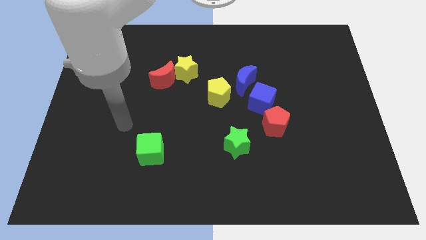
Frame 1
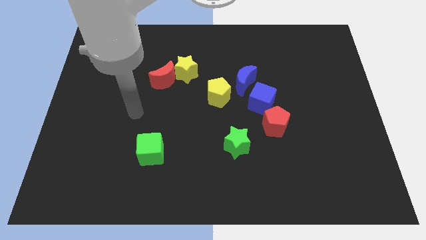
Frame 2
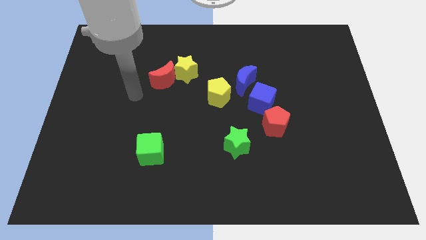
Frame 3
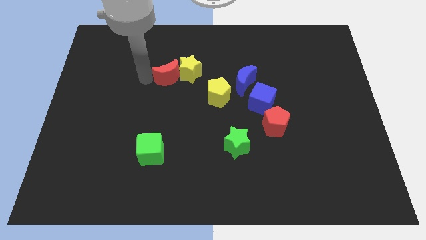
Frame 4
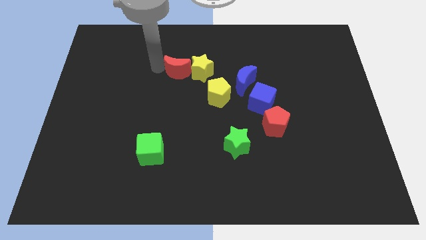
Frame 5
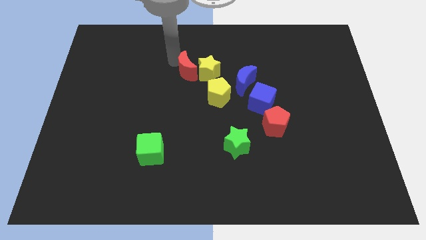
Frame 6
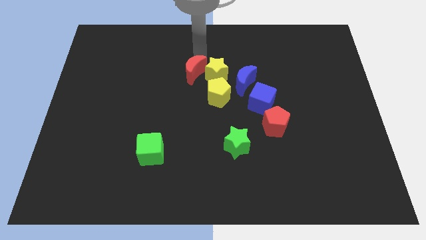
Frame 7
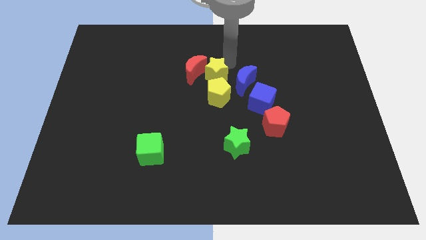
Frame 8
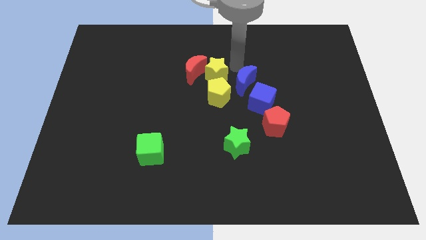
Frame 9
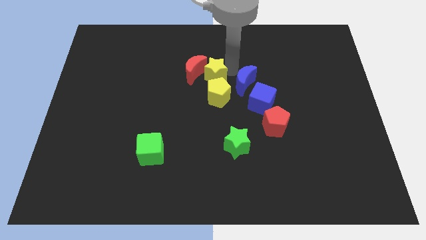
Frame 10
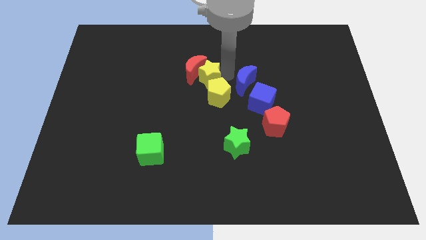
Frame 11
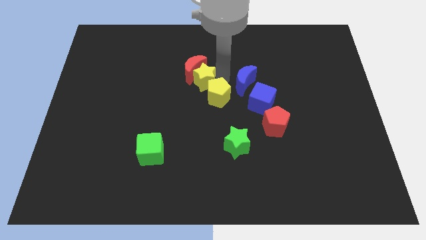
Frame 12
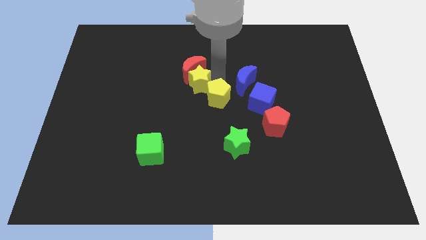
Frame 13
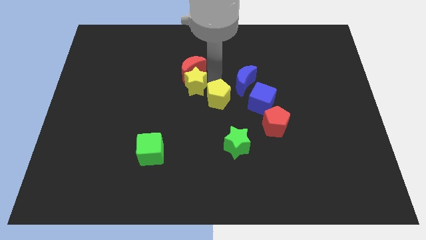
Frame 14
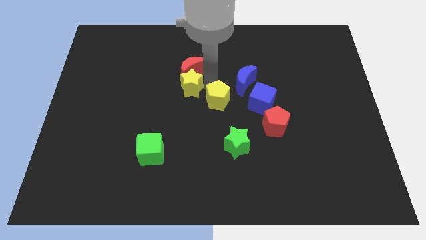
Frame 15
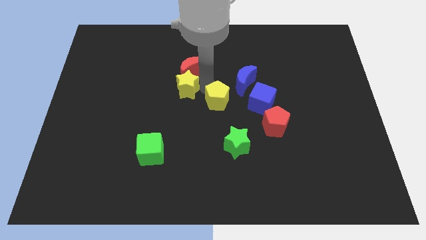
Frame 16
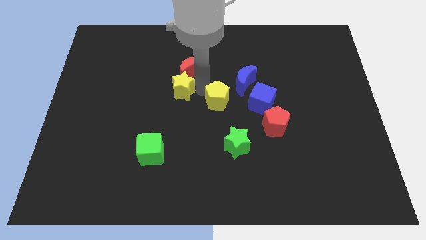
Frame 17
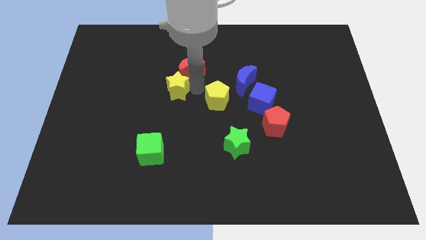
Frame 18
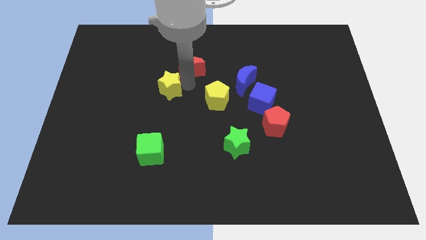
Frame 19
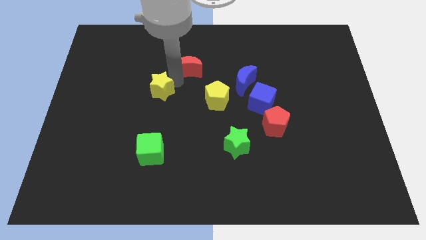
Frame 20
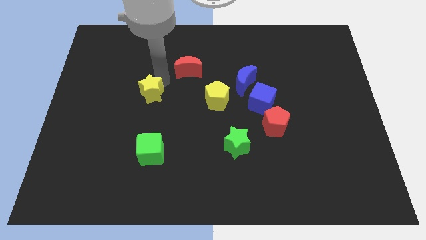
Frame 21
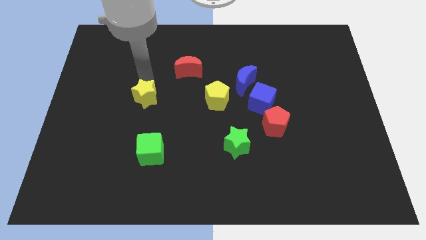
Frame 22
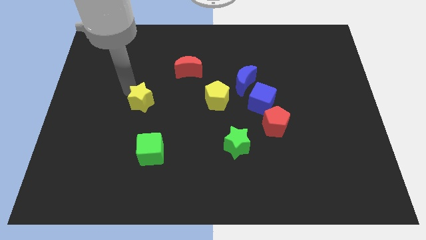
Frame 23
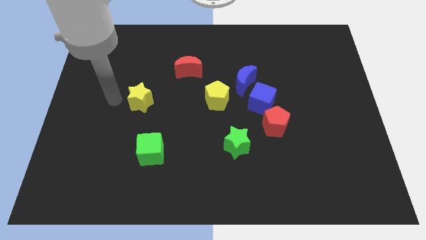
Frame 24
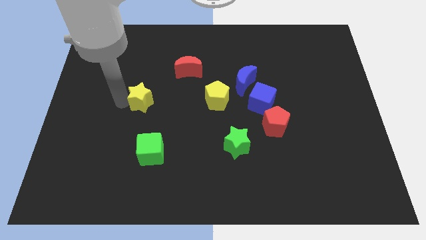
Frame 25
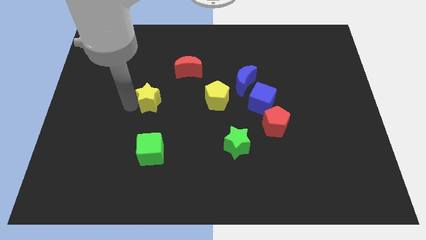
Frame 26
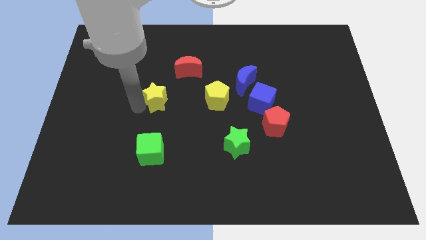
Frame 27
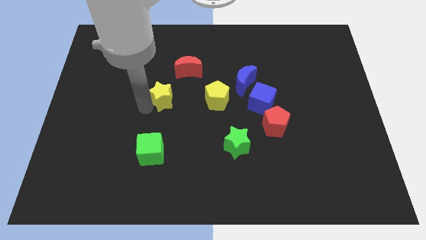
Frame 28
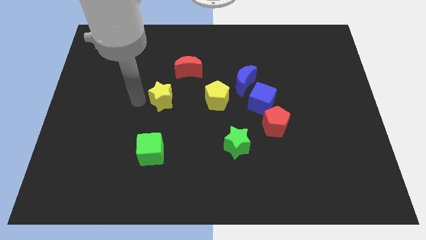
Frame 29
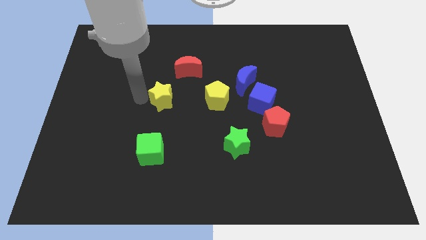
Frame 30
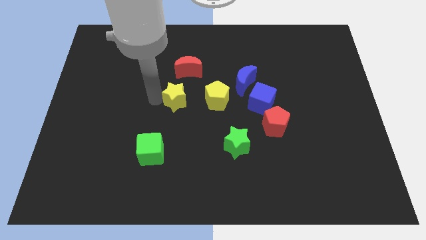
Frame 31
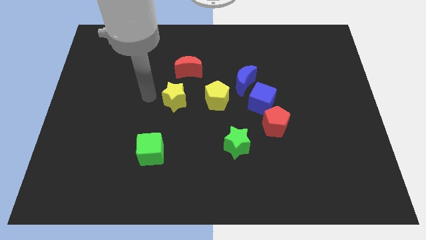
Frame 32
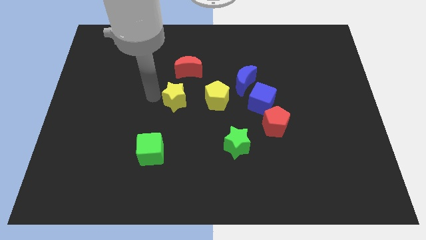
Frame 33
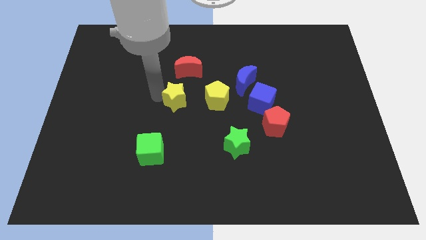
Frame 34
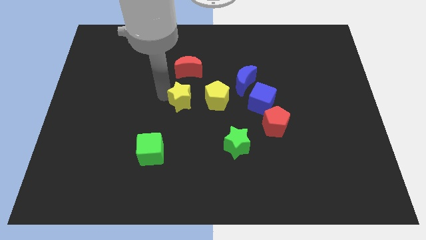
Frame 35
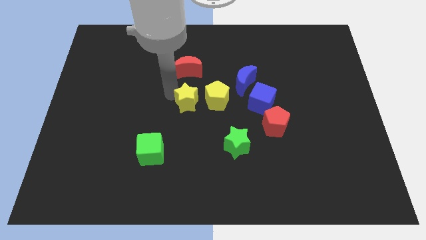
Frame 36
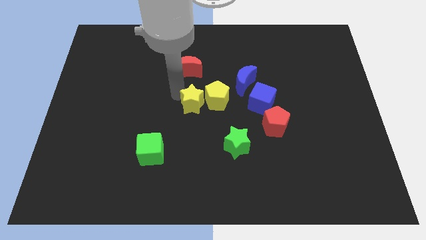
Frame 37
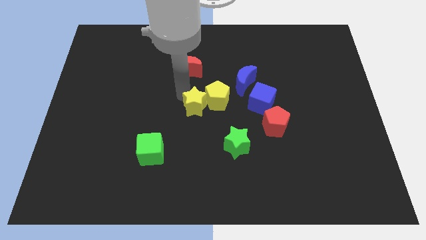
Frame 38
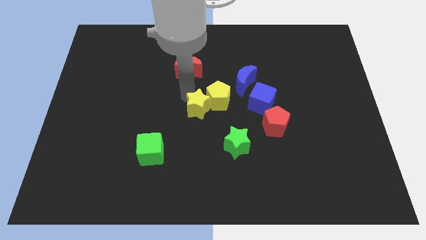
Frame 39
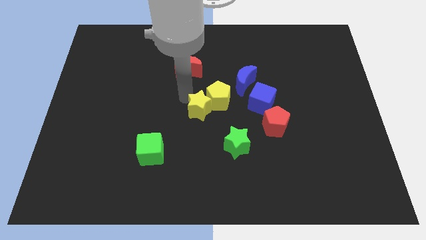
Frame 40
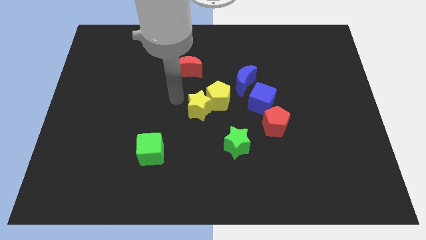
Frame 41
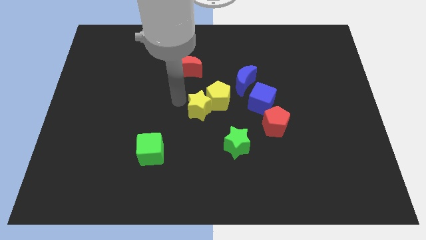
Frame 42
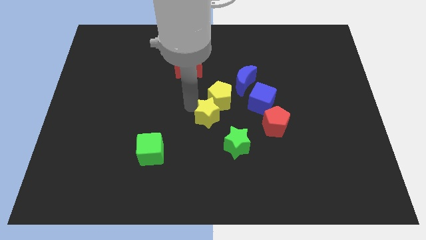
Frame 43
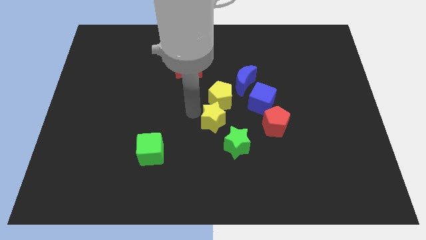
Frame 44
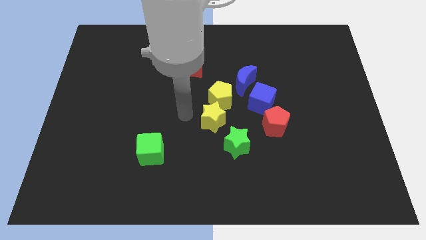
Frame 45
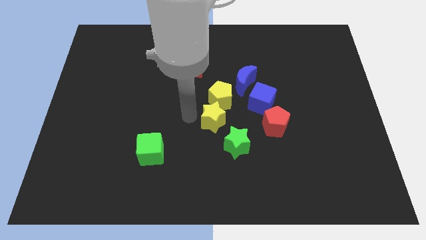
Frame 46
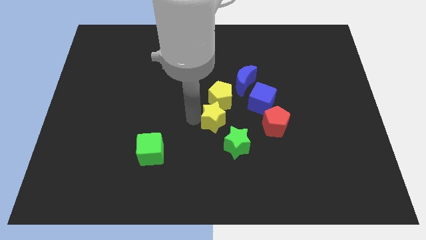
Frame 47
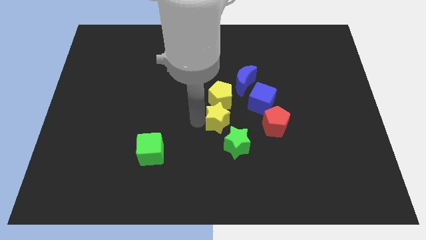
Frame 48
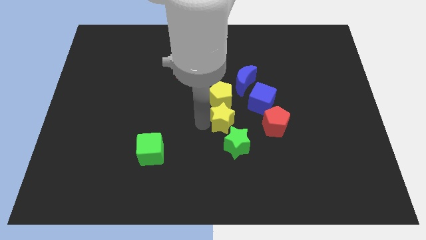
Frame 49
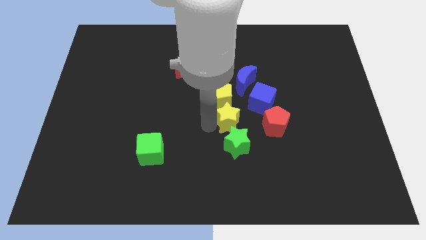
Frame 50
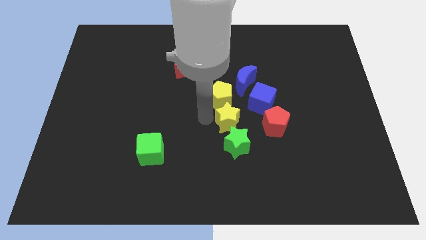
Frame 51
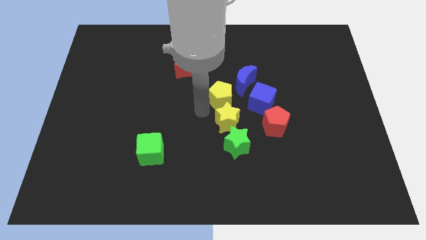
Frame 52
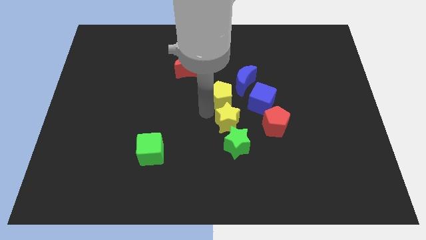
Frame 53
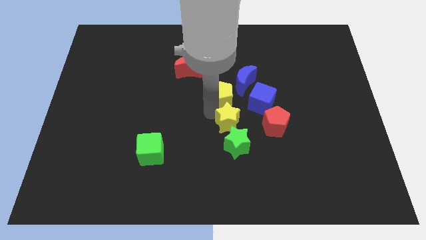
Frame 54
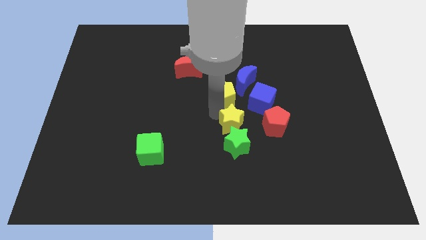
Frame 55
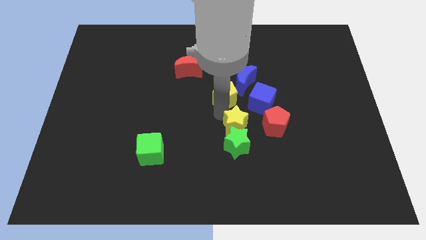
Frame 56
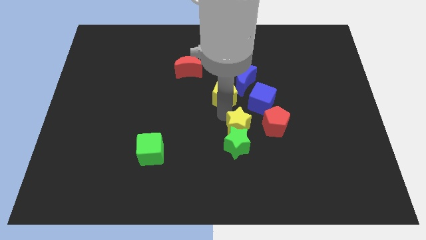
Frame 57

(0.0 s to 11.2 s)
push the yellow star downwards and to the right diagonally

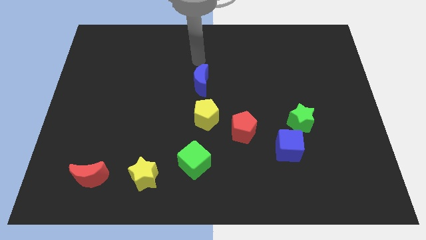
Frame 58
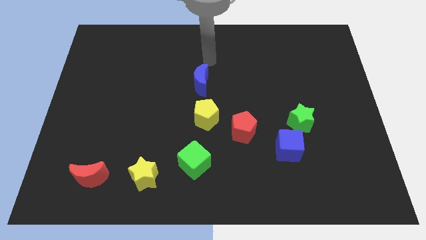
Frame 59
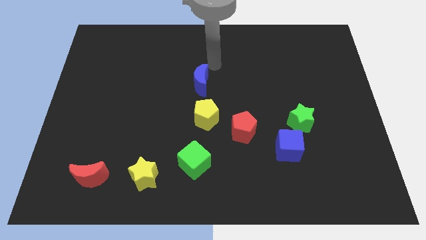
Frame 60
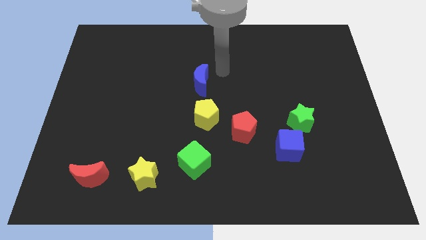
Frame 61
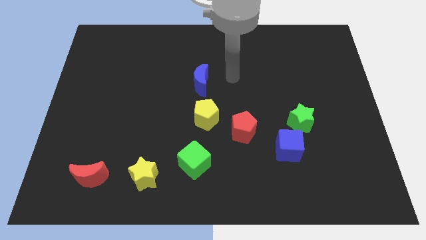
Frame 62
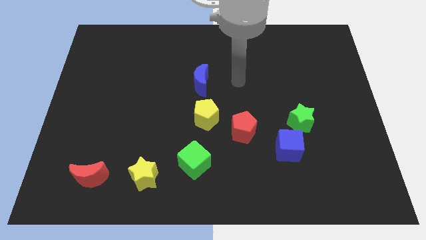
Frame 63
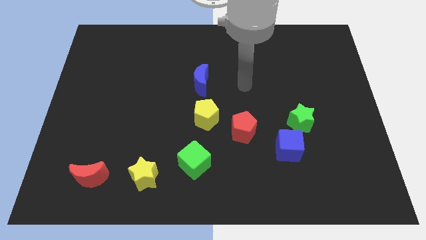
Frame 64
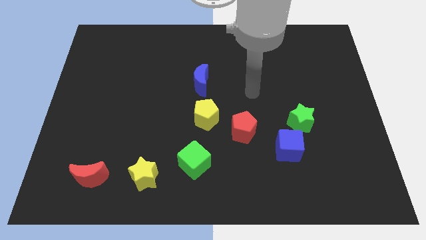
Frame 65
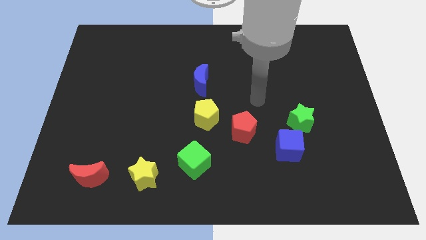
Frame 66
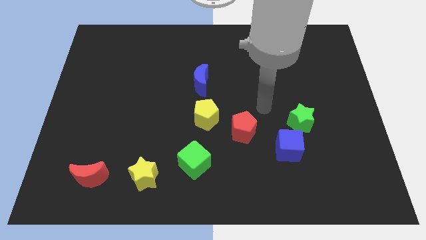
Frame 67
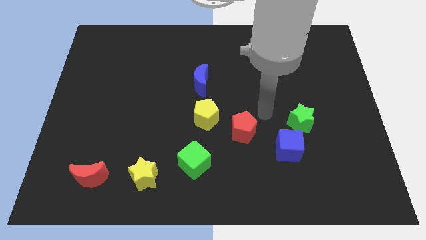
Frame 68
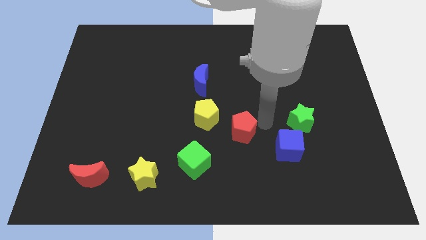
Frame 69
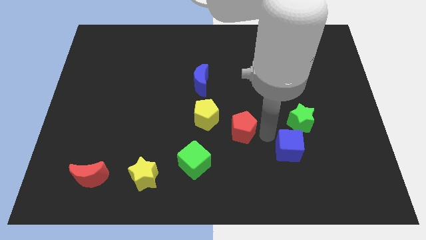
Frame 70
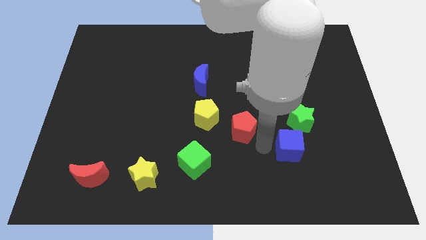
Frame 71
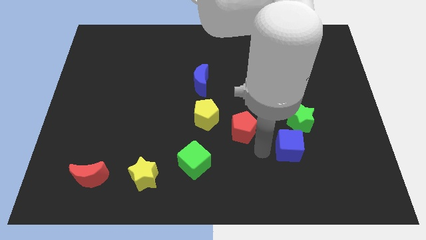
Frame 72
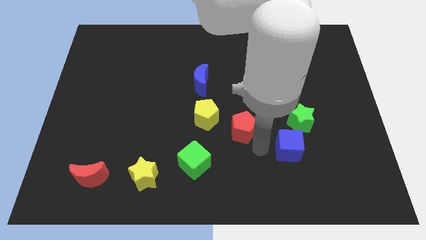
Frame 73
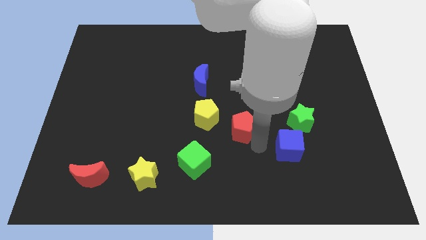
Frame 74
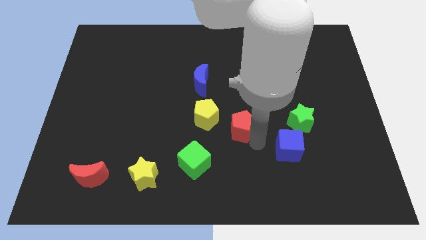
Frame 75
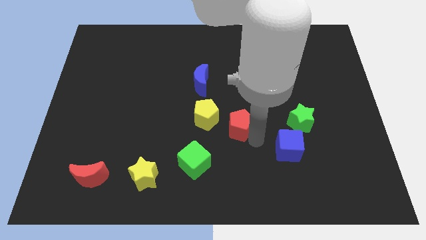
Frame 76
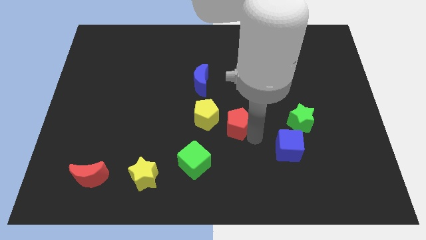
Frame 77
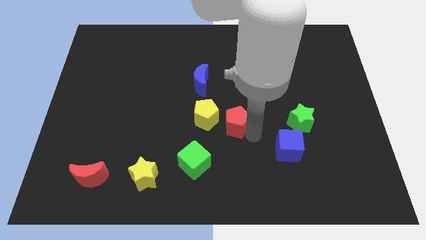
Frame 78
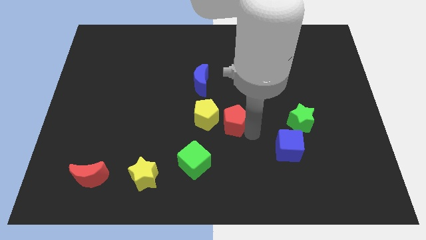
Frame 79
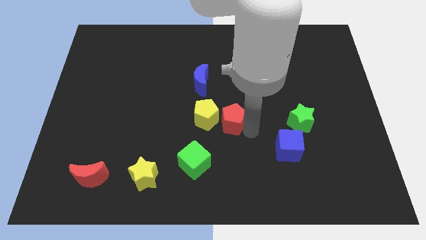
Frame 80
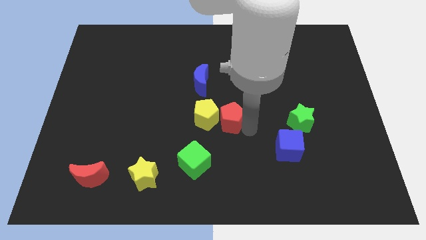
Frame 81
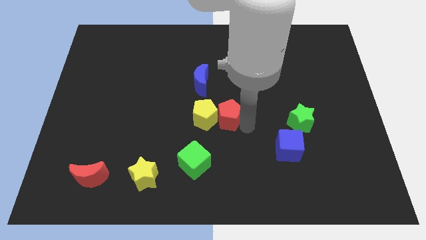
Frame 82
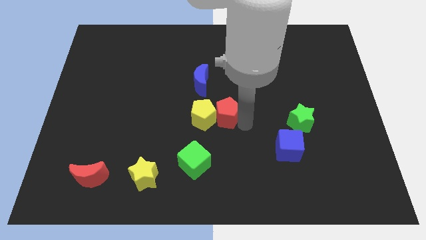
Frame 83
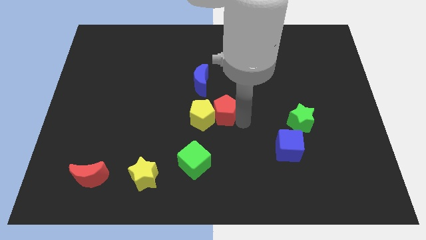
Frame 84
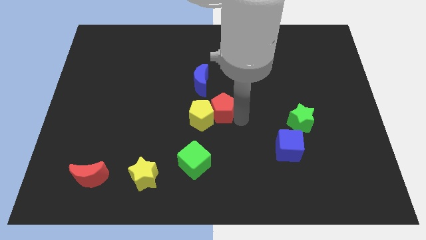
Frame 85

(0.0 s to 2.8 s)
slide the red pentagon a bit diagonally upwards and to the left
